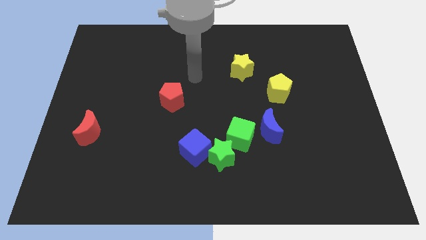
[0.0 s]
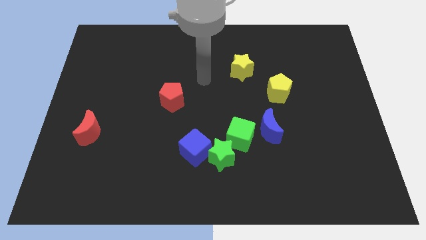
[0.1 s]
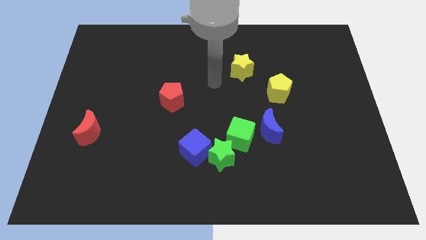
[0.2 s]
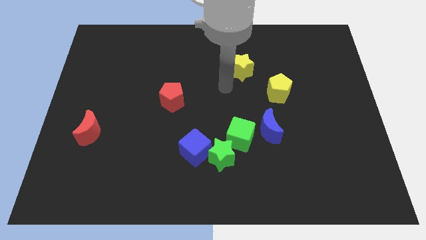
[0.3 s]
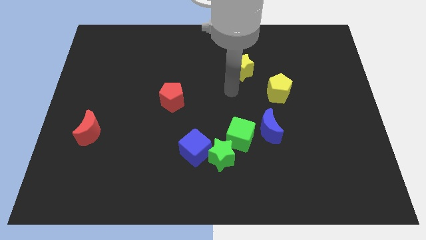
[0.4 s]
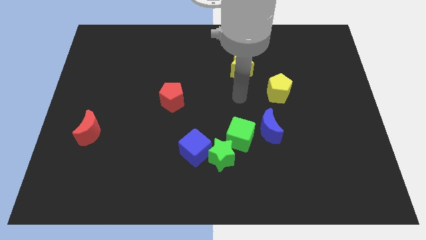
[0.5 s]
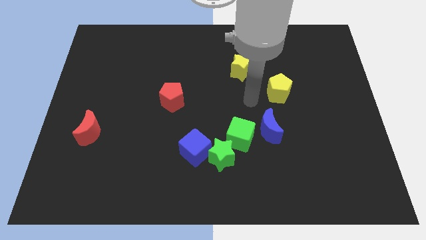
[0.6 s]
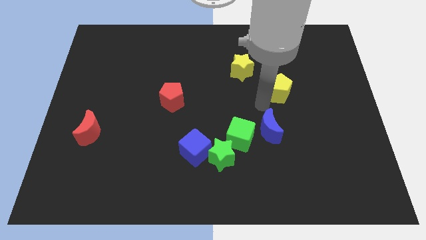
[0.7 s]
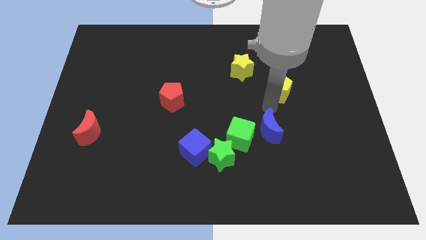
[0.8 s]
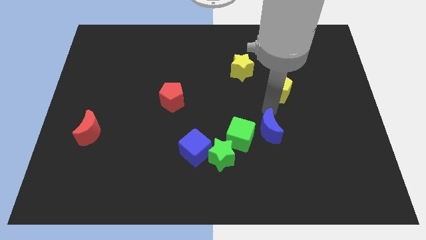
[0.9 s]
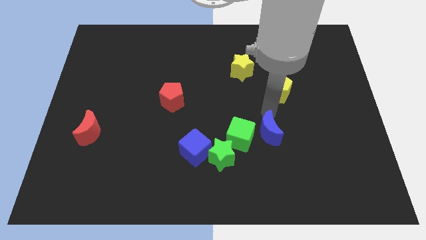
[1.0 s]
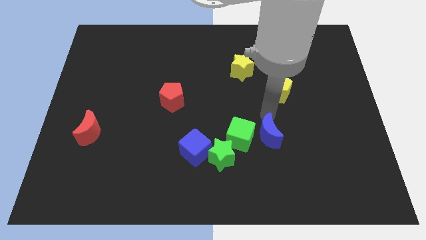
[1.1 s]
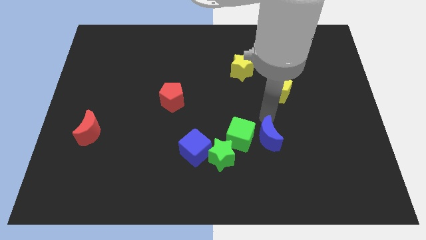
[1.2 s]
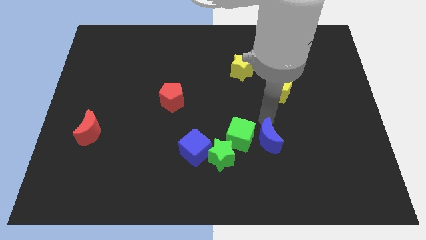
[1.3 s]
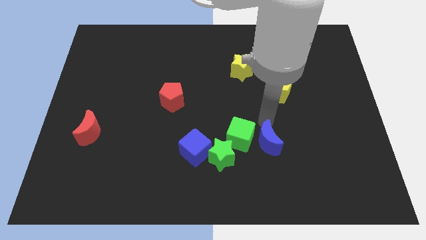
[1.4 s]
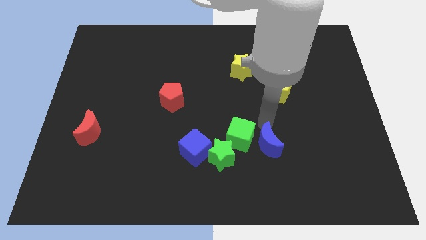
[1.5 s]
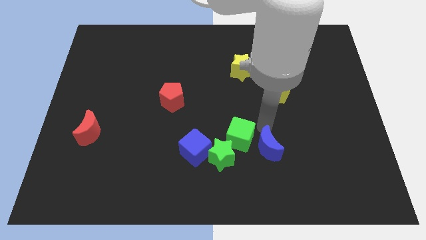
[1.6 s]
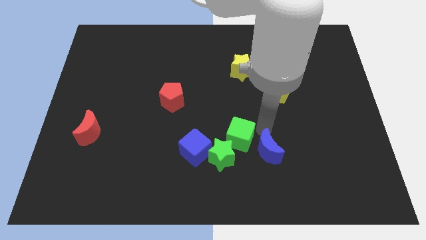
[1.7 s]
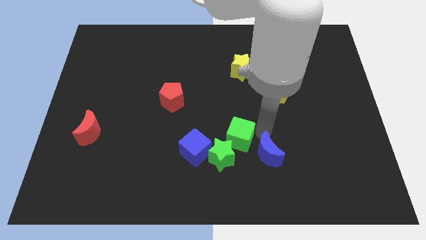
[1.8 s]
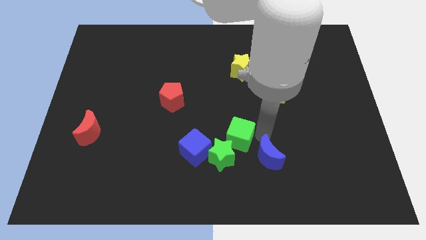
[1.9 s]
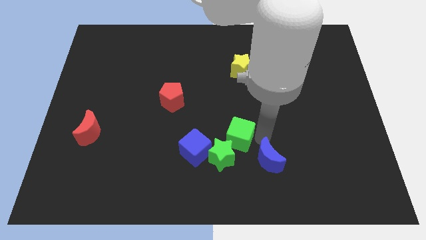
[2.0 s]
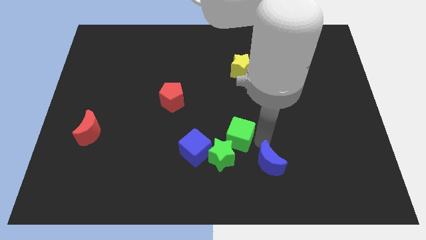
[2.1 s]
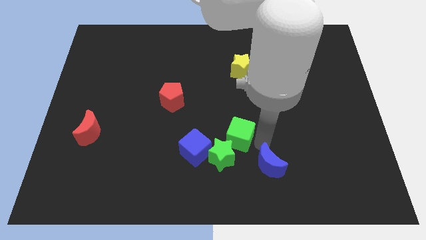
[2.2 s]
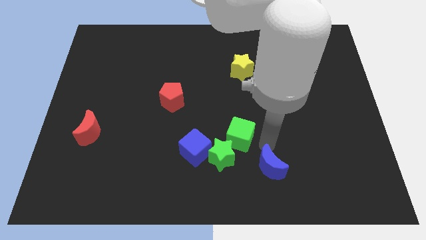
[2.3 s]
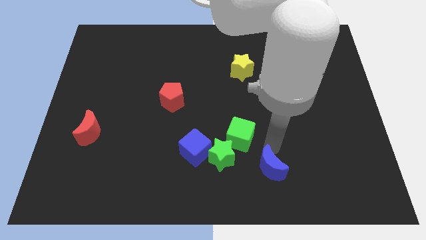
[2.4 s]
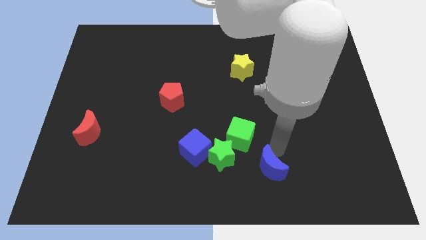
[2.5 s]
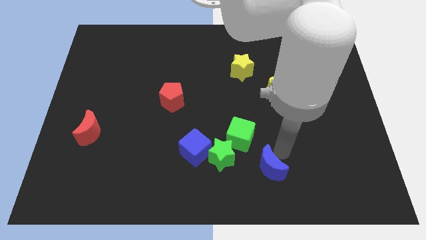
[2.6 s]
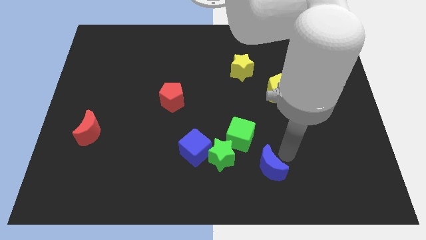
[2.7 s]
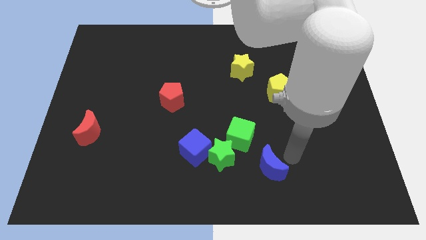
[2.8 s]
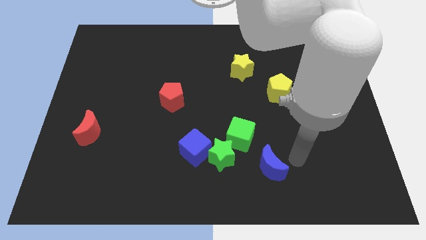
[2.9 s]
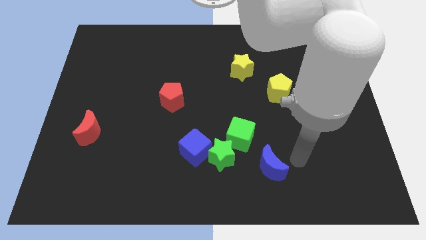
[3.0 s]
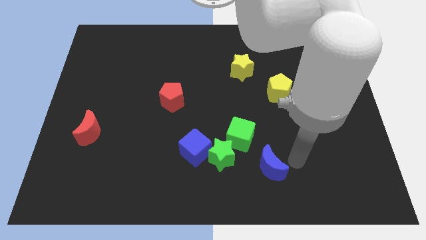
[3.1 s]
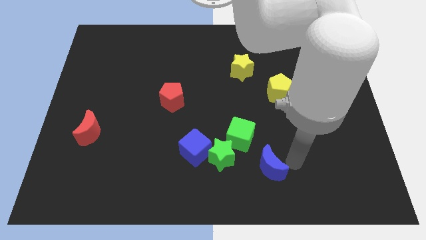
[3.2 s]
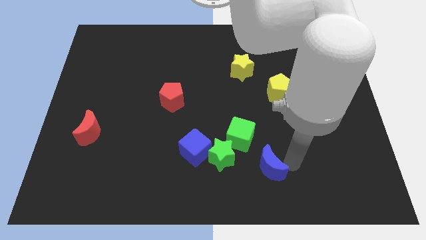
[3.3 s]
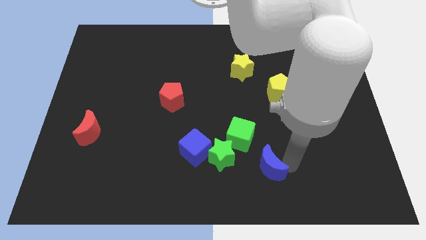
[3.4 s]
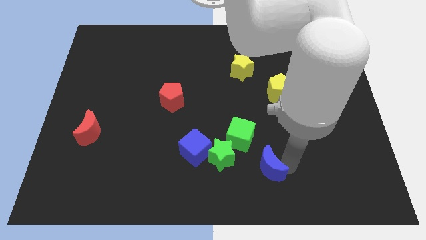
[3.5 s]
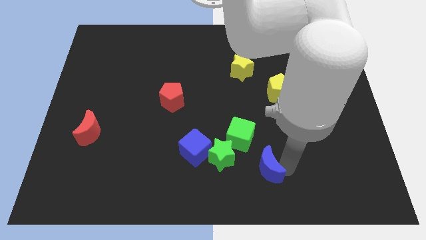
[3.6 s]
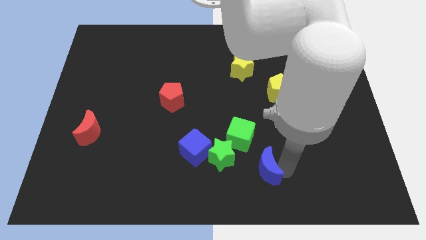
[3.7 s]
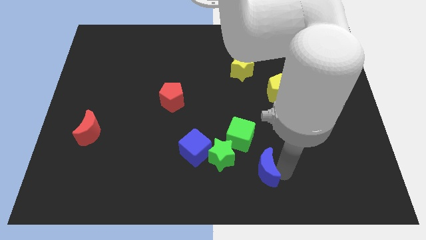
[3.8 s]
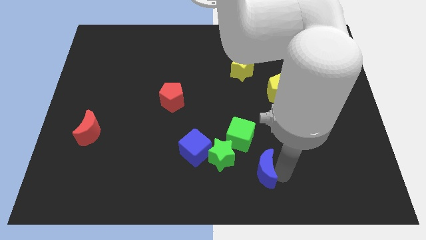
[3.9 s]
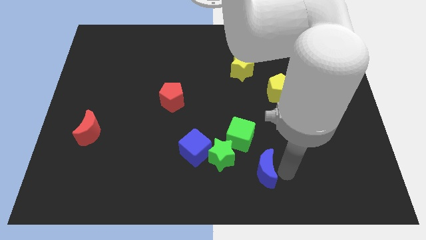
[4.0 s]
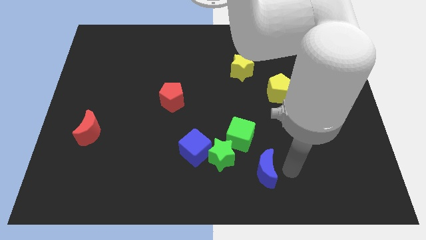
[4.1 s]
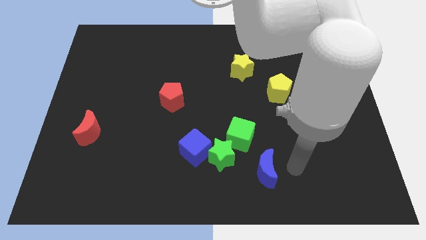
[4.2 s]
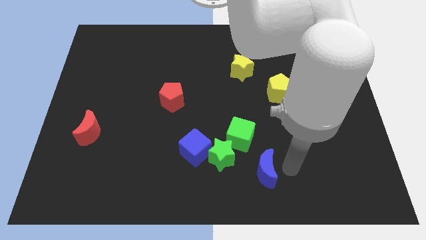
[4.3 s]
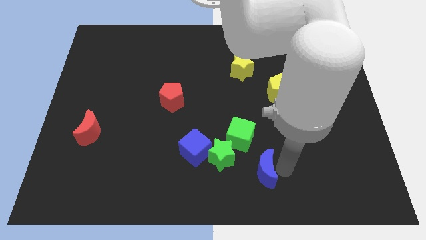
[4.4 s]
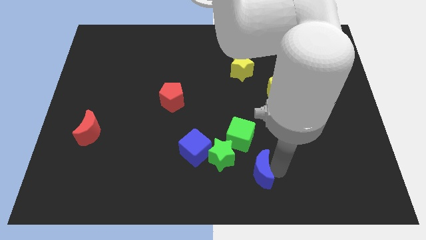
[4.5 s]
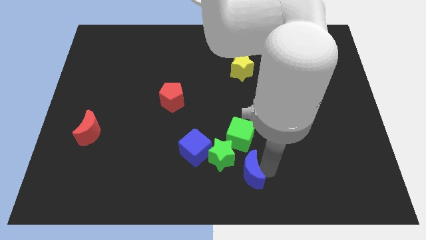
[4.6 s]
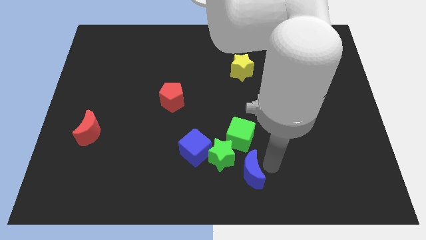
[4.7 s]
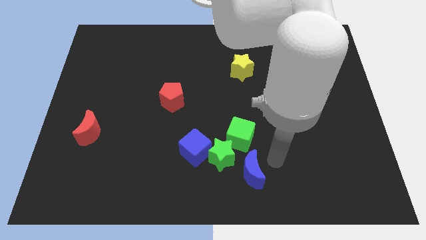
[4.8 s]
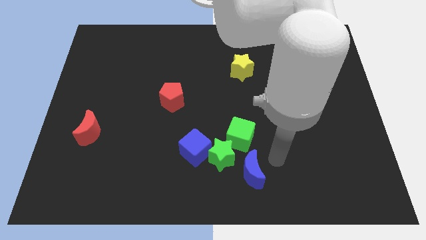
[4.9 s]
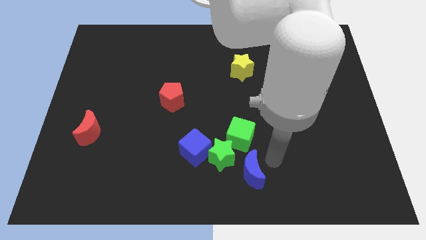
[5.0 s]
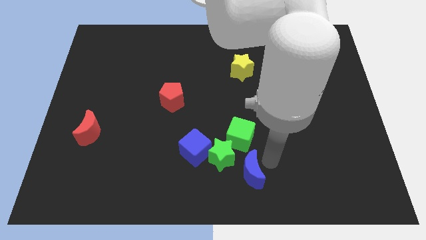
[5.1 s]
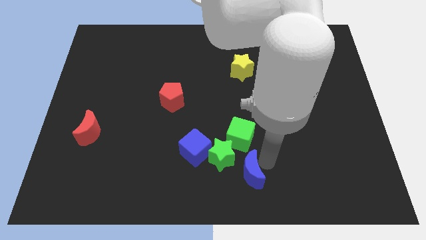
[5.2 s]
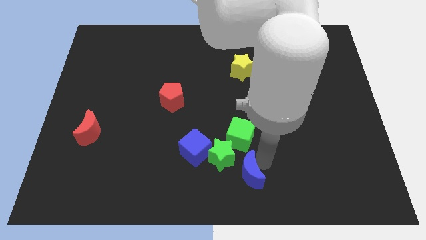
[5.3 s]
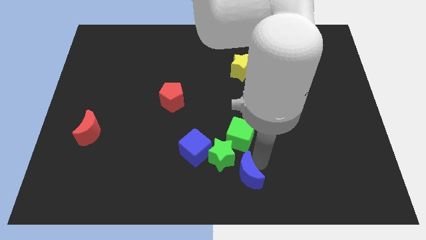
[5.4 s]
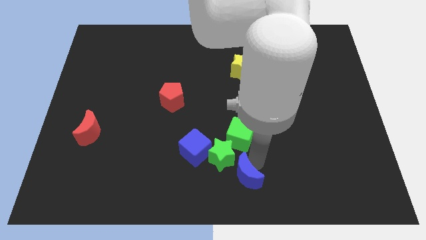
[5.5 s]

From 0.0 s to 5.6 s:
slide the blue moon to the bottom right of the blue cube
